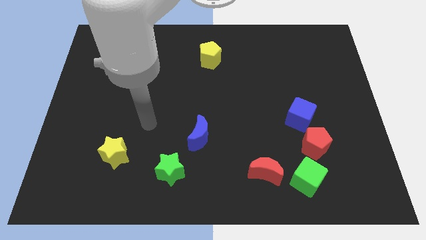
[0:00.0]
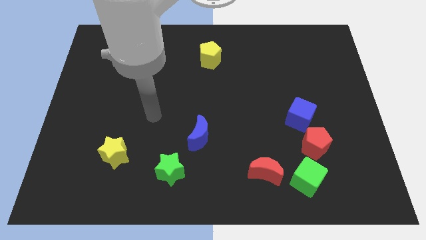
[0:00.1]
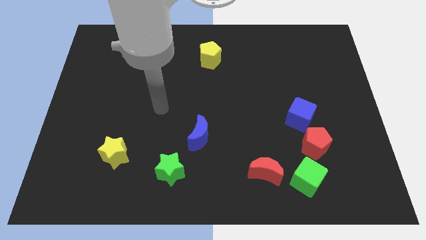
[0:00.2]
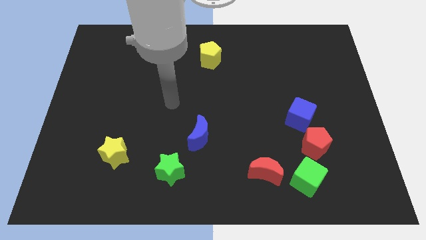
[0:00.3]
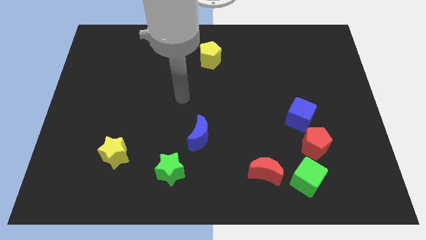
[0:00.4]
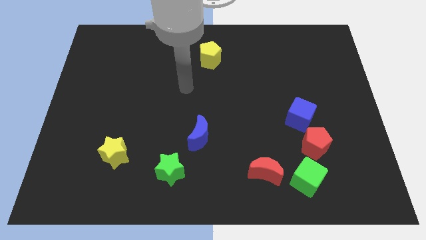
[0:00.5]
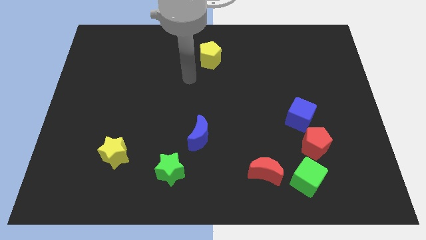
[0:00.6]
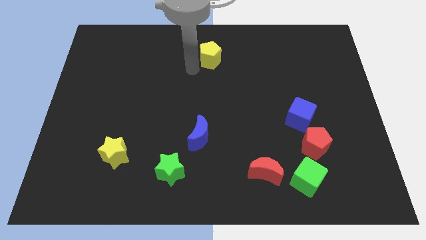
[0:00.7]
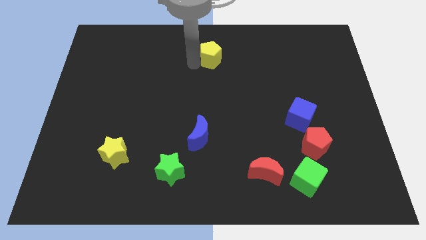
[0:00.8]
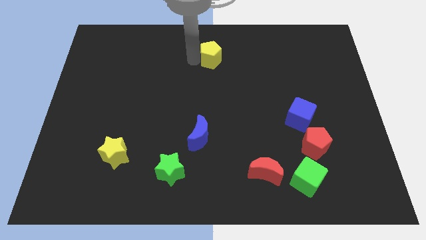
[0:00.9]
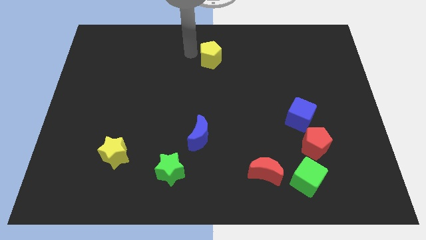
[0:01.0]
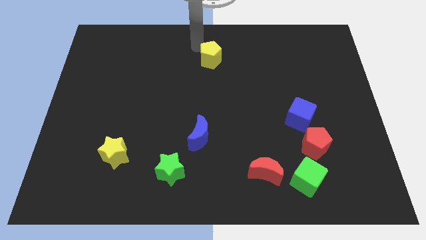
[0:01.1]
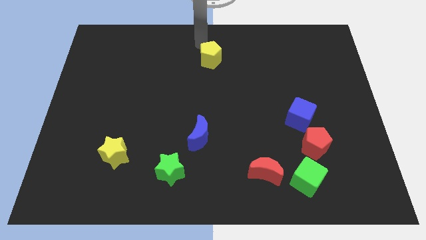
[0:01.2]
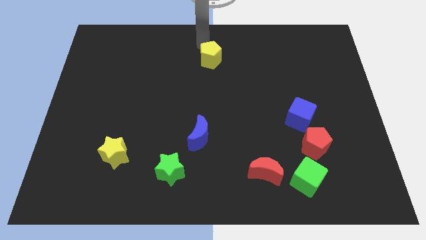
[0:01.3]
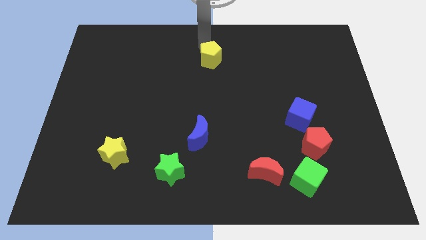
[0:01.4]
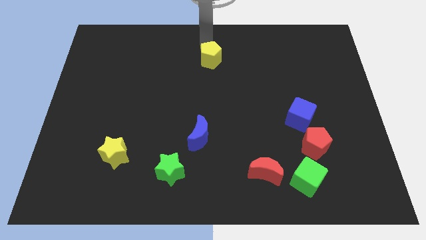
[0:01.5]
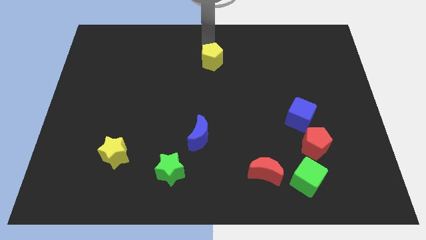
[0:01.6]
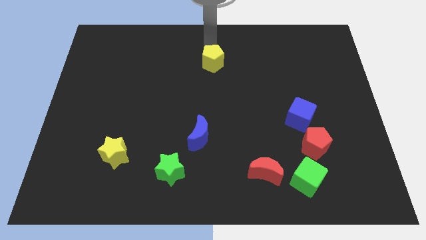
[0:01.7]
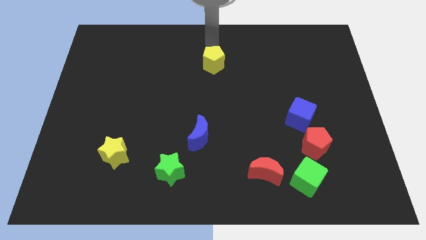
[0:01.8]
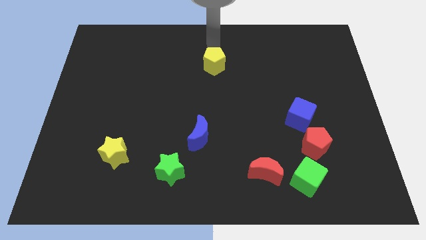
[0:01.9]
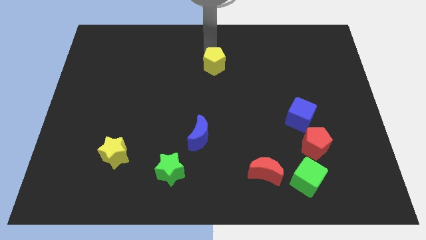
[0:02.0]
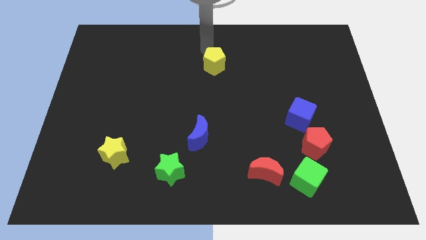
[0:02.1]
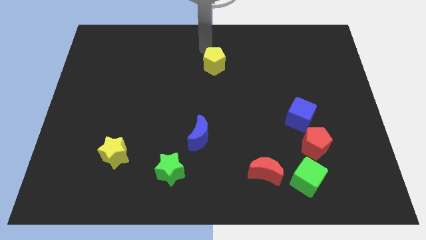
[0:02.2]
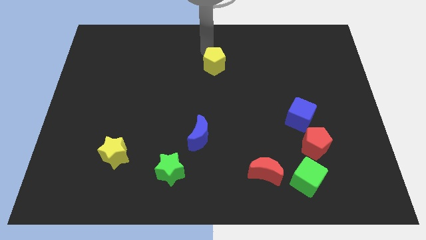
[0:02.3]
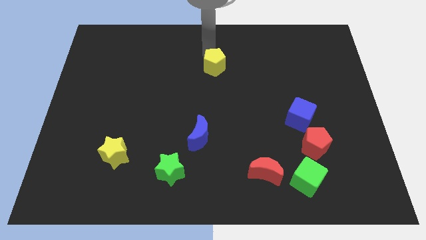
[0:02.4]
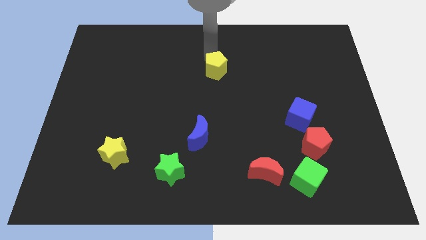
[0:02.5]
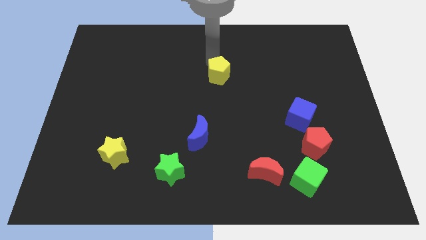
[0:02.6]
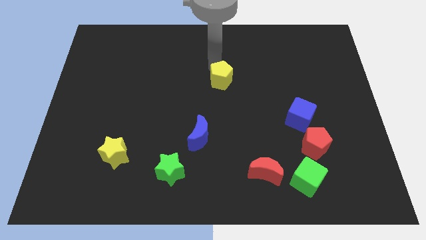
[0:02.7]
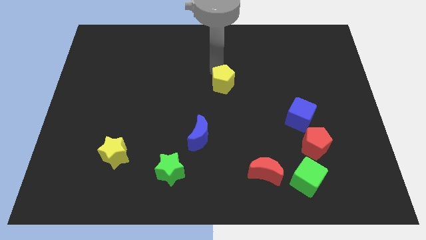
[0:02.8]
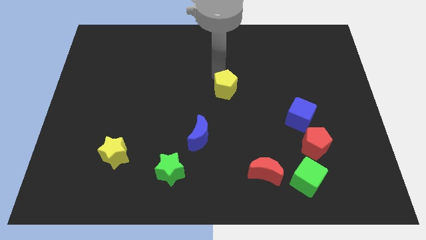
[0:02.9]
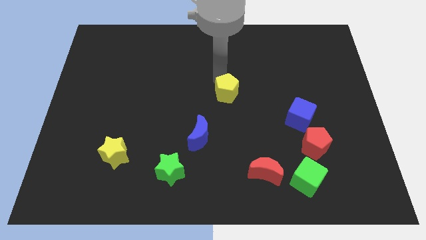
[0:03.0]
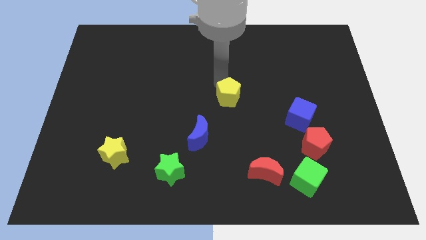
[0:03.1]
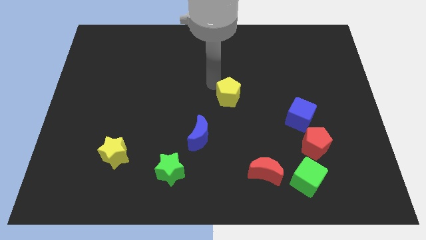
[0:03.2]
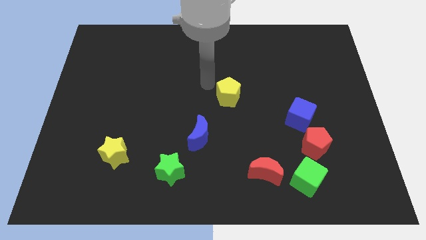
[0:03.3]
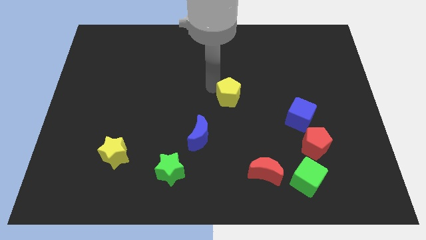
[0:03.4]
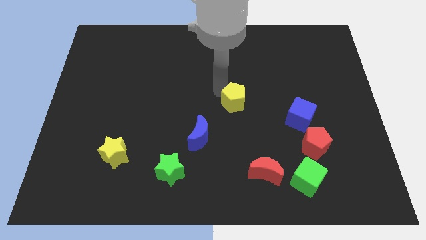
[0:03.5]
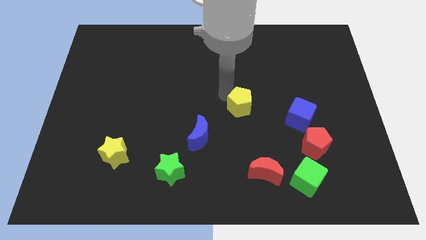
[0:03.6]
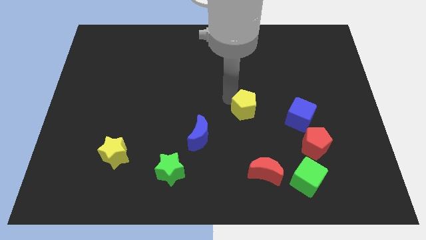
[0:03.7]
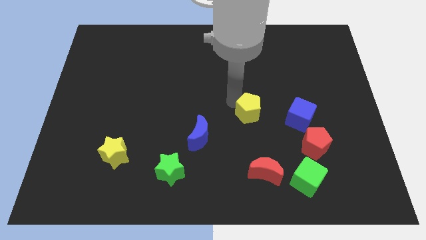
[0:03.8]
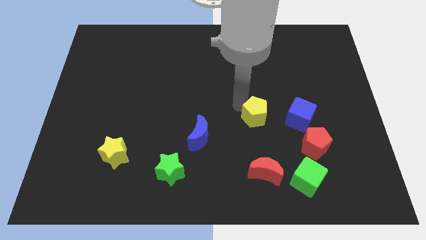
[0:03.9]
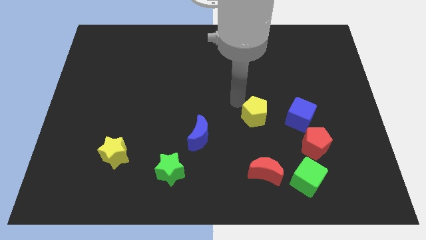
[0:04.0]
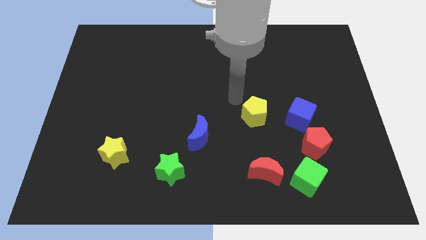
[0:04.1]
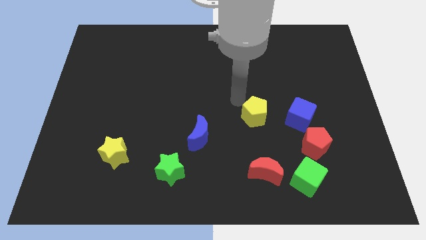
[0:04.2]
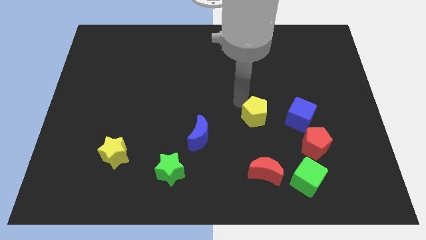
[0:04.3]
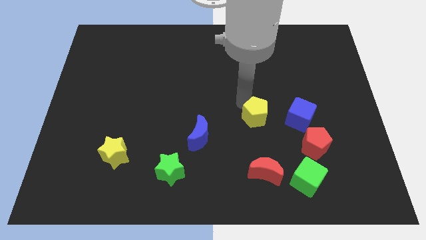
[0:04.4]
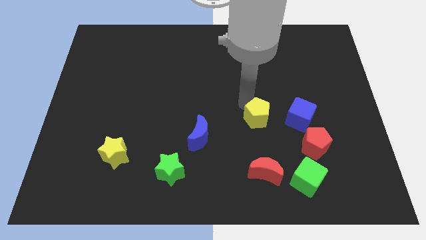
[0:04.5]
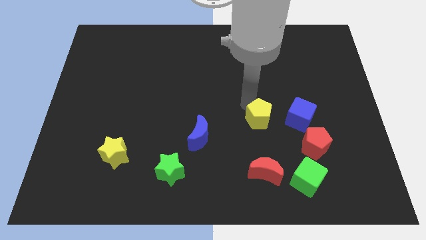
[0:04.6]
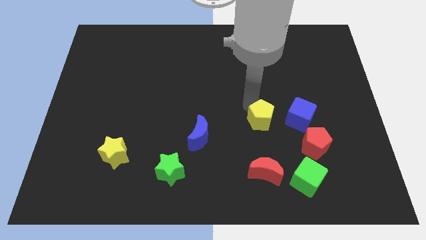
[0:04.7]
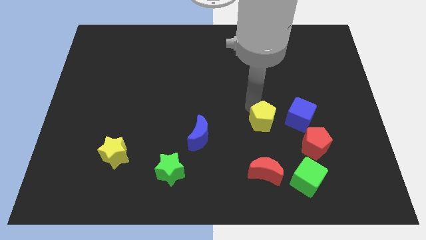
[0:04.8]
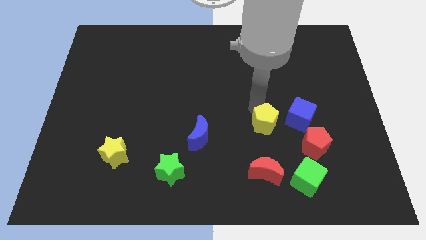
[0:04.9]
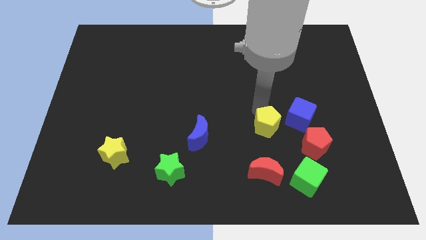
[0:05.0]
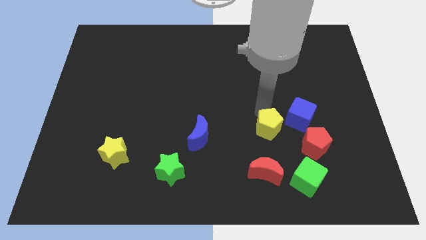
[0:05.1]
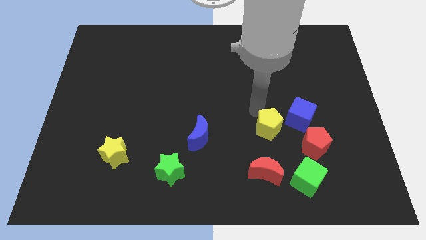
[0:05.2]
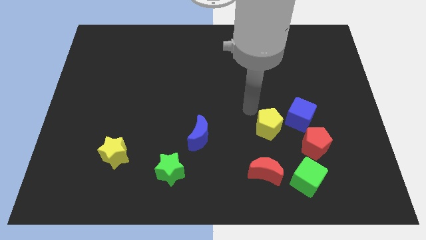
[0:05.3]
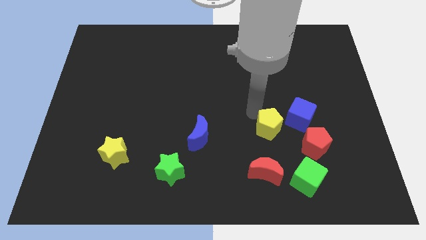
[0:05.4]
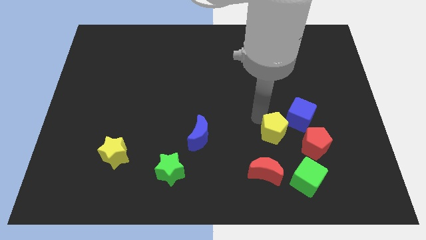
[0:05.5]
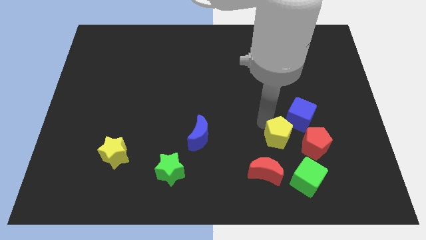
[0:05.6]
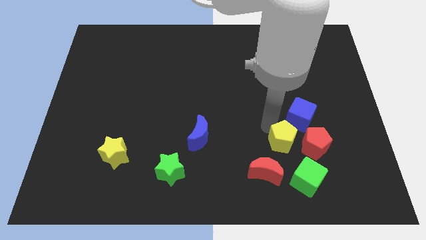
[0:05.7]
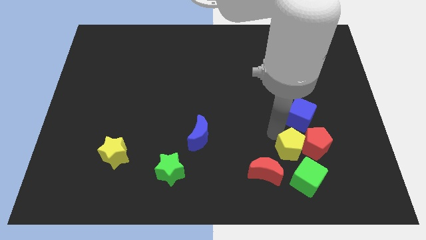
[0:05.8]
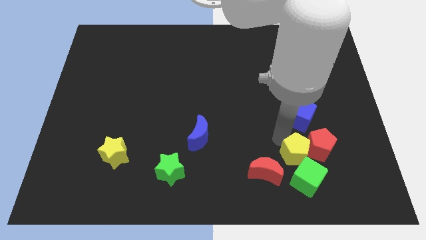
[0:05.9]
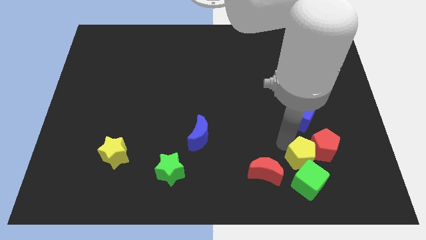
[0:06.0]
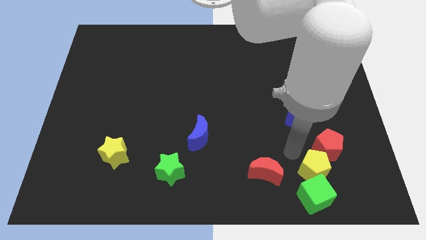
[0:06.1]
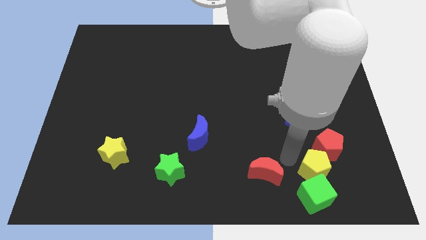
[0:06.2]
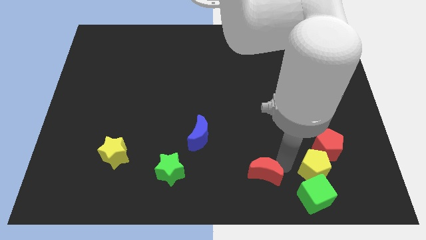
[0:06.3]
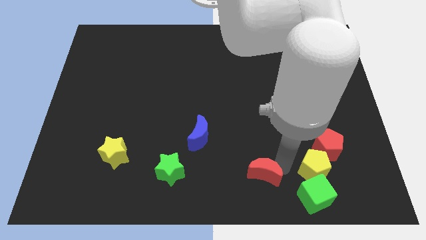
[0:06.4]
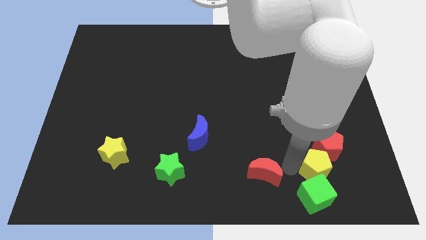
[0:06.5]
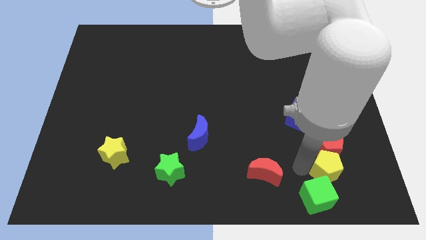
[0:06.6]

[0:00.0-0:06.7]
push the yellow pentagon to the bottom right side of the red pentagon

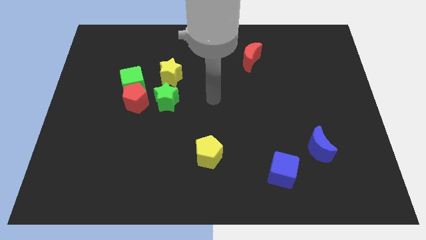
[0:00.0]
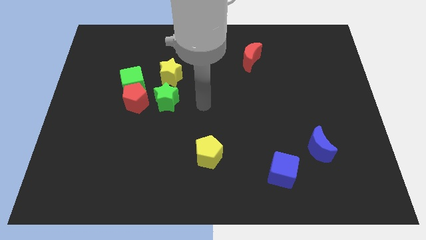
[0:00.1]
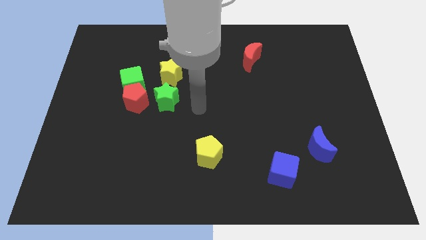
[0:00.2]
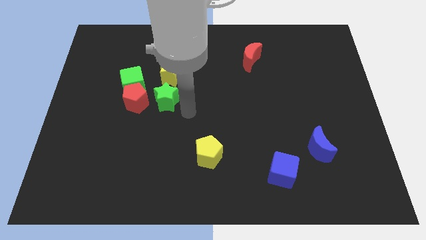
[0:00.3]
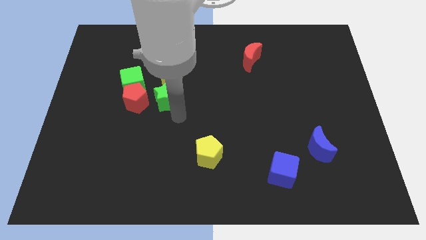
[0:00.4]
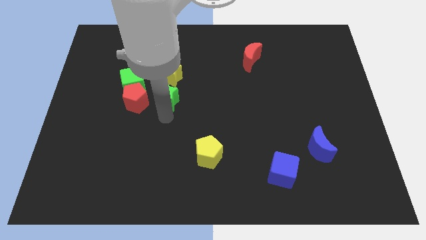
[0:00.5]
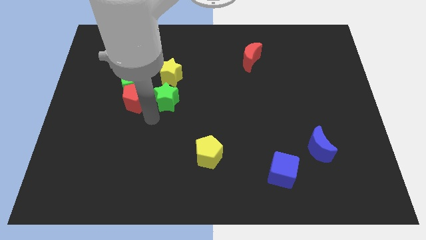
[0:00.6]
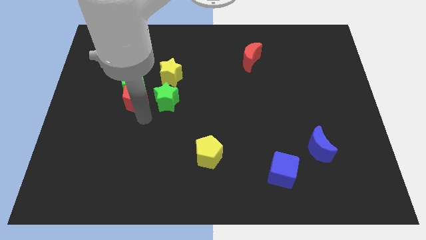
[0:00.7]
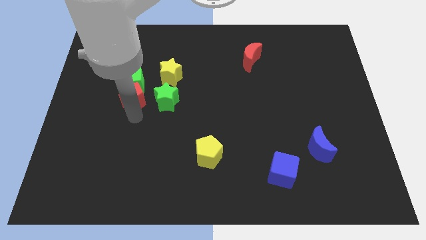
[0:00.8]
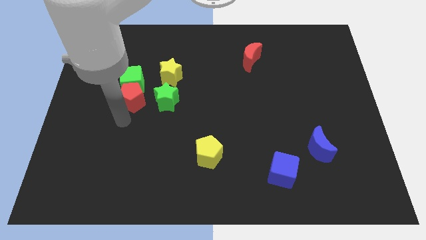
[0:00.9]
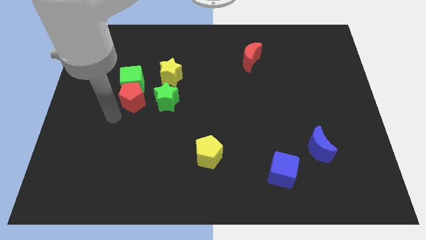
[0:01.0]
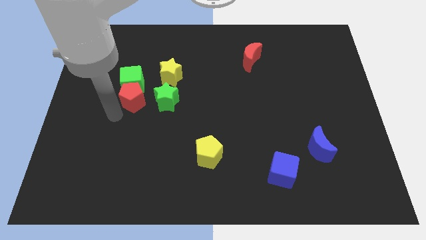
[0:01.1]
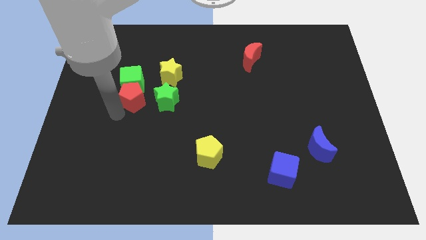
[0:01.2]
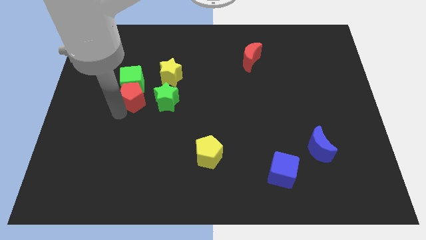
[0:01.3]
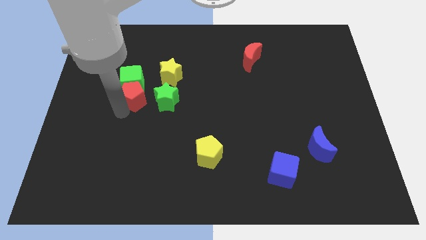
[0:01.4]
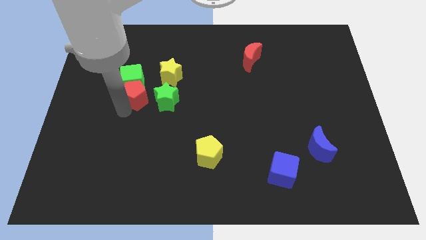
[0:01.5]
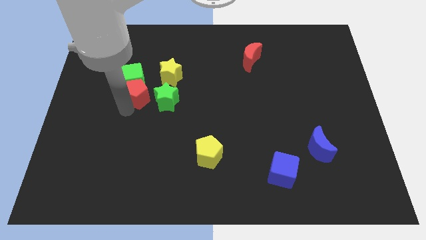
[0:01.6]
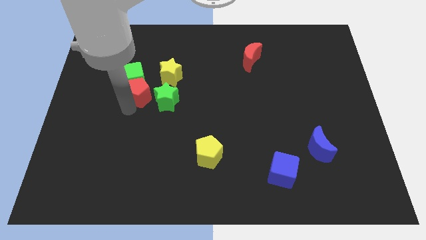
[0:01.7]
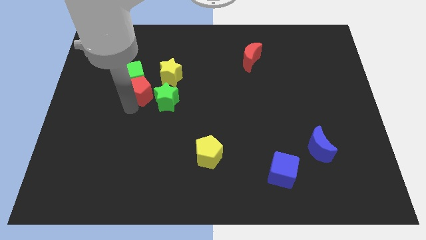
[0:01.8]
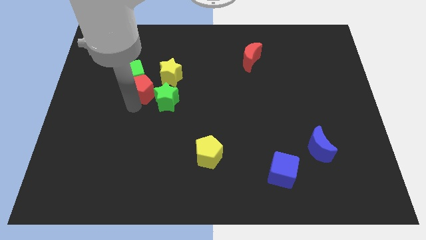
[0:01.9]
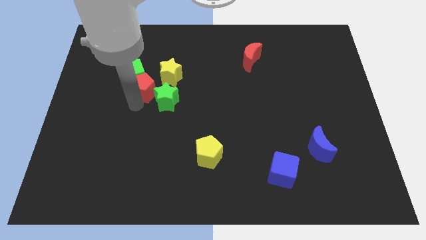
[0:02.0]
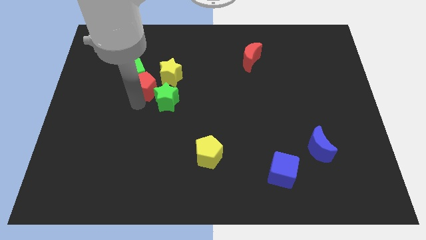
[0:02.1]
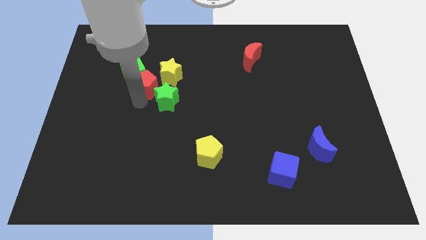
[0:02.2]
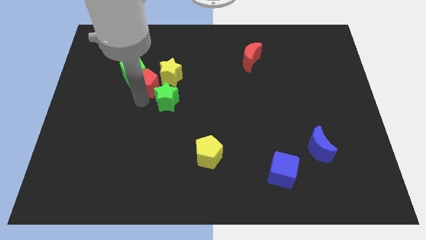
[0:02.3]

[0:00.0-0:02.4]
slide the red pentagon to the top side of the green star
